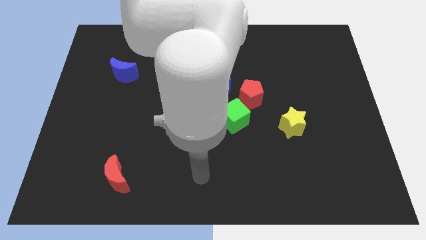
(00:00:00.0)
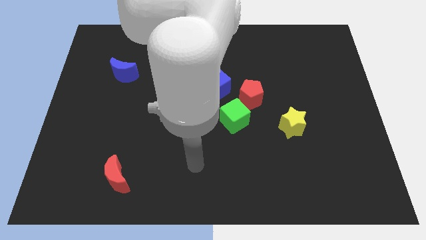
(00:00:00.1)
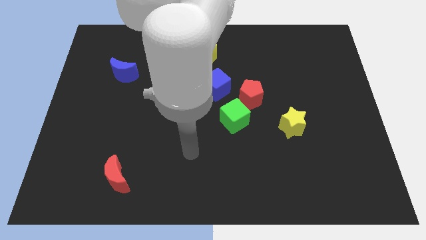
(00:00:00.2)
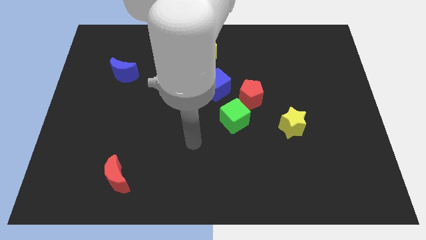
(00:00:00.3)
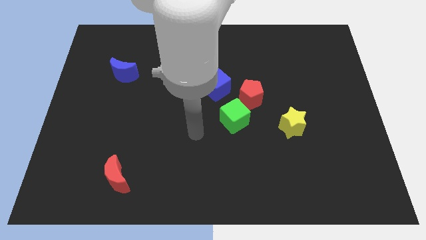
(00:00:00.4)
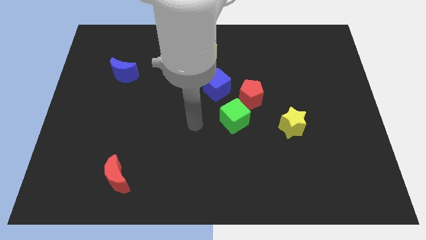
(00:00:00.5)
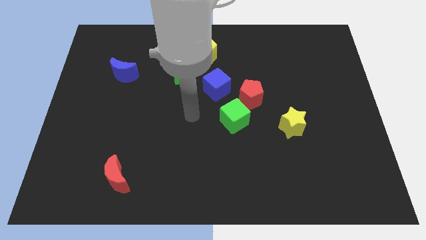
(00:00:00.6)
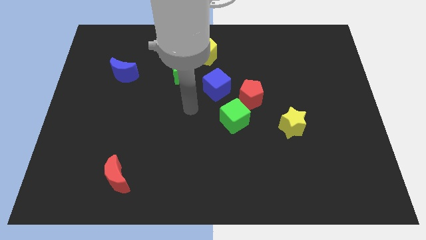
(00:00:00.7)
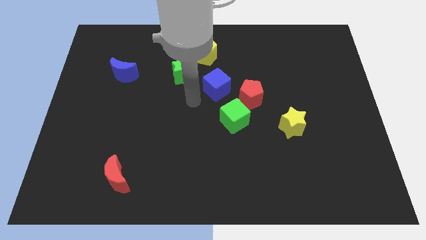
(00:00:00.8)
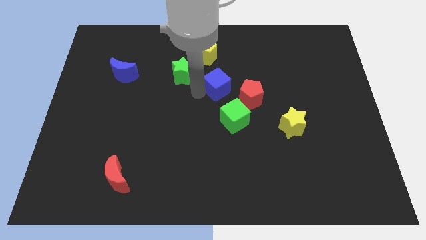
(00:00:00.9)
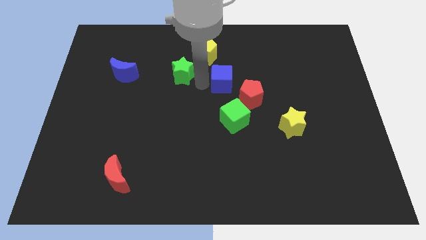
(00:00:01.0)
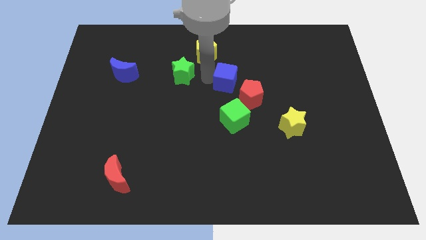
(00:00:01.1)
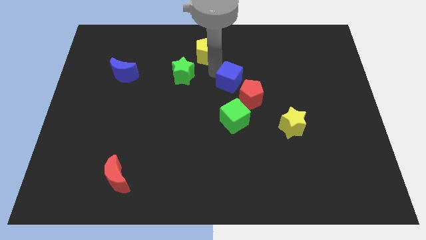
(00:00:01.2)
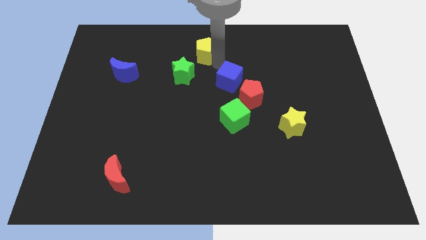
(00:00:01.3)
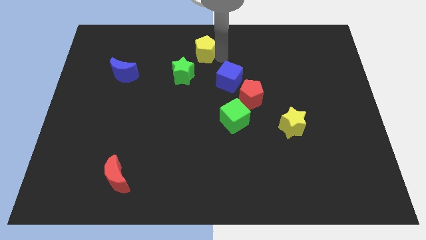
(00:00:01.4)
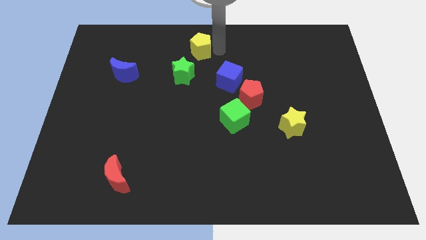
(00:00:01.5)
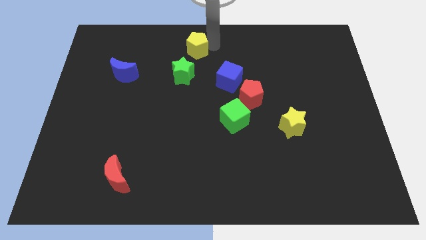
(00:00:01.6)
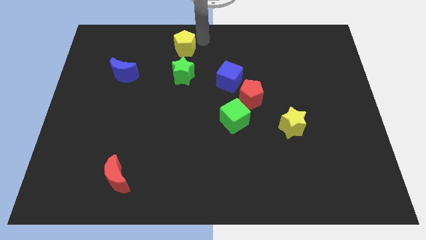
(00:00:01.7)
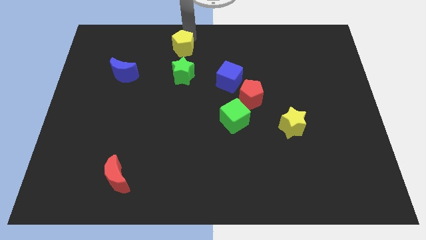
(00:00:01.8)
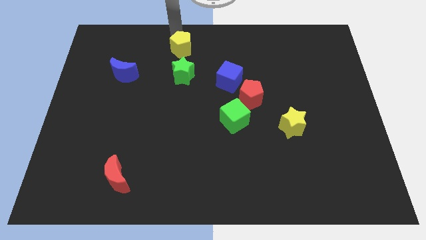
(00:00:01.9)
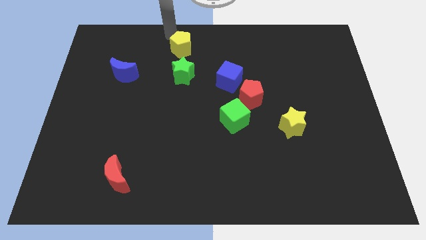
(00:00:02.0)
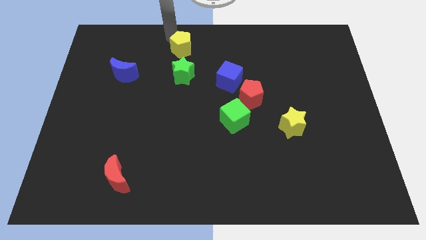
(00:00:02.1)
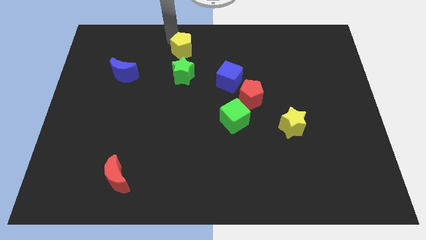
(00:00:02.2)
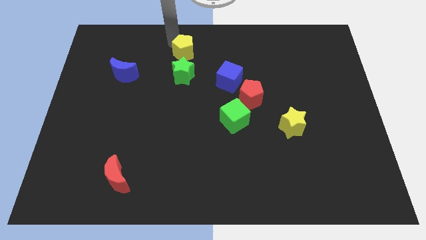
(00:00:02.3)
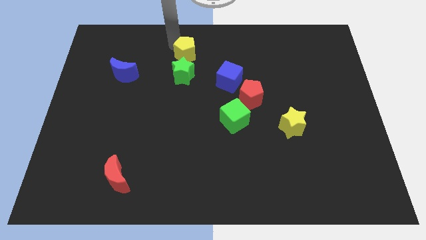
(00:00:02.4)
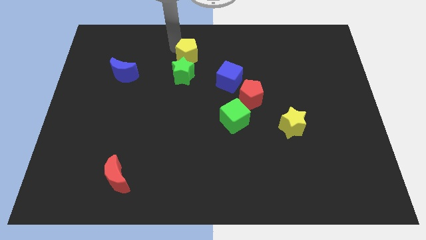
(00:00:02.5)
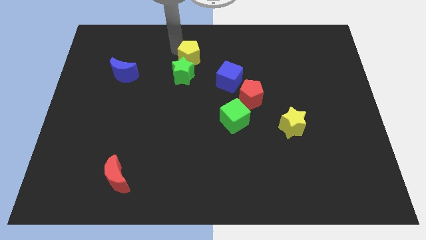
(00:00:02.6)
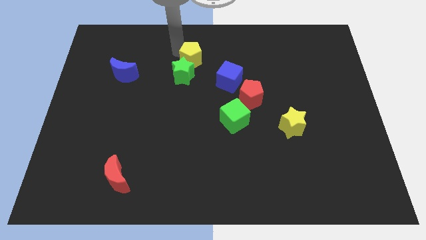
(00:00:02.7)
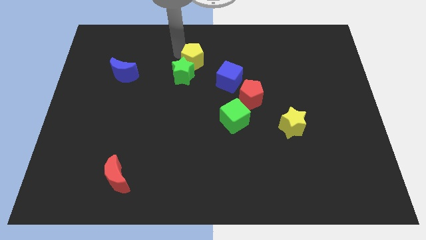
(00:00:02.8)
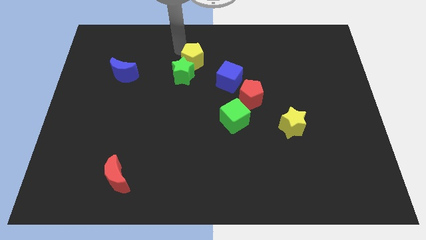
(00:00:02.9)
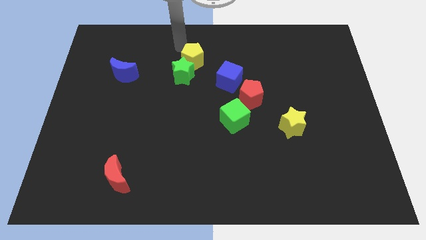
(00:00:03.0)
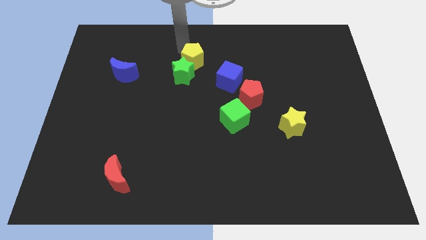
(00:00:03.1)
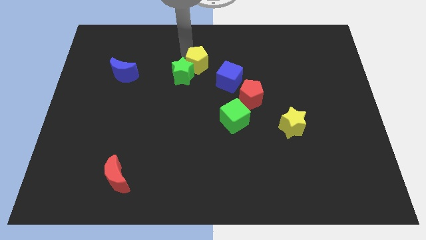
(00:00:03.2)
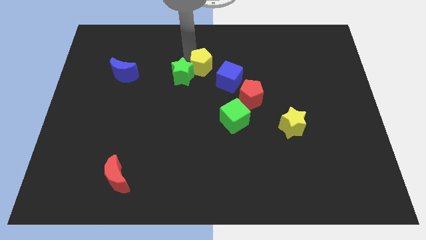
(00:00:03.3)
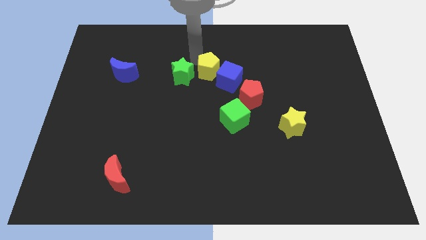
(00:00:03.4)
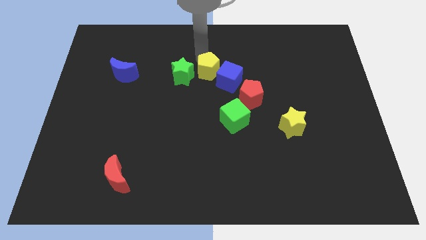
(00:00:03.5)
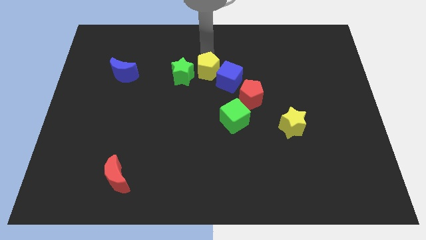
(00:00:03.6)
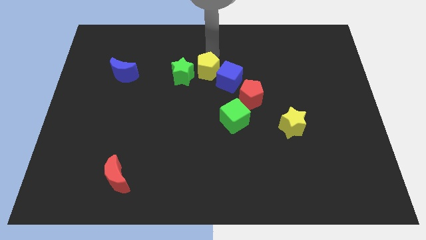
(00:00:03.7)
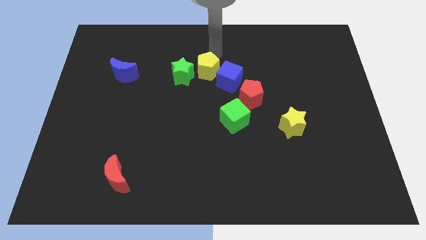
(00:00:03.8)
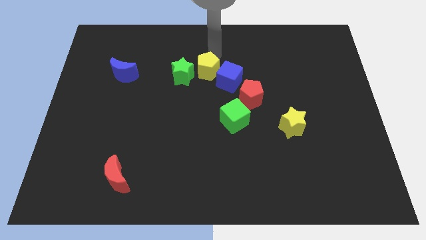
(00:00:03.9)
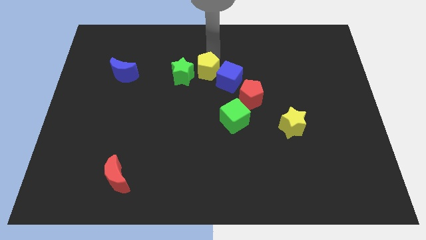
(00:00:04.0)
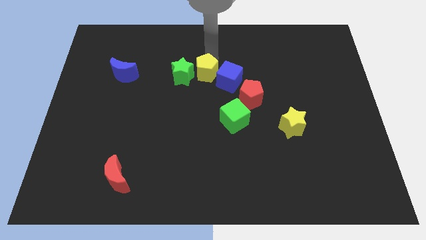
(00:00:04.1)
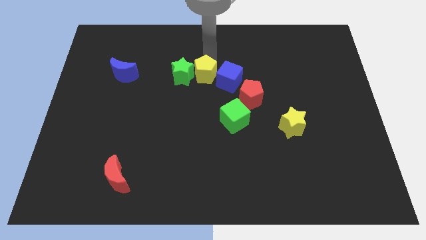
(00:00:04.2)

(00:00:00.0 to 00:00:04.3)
push the yellow pentagon slightly down

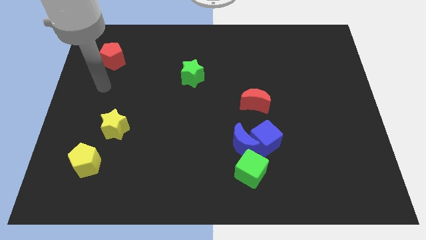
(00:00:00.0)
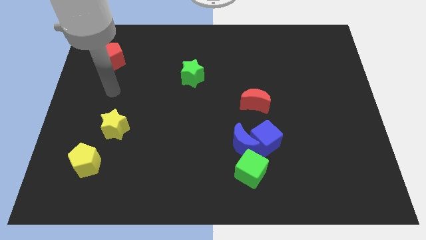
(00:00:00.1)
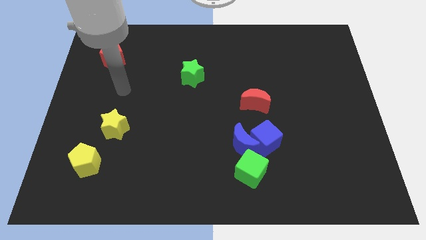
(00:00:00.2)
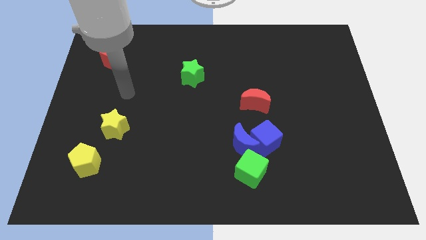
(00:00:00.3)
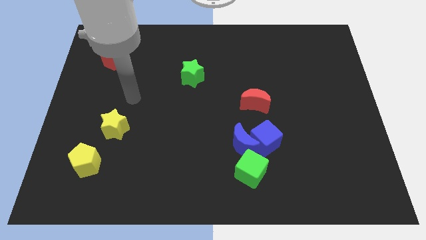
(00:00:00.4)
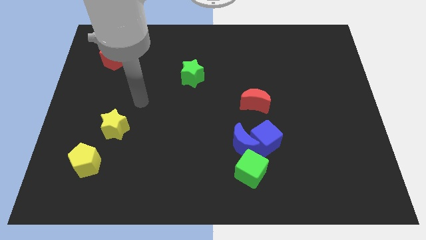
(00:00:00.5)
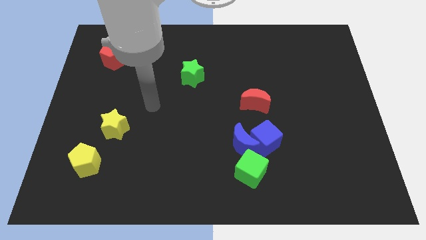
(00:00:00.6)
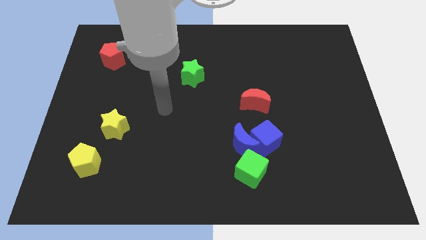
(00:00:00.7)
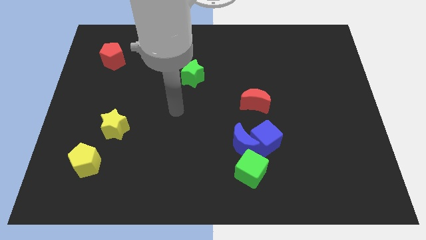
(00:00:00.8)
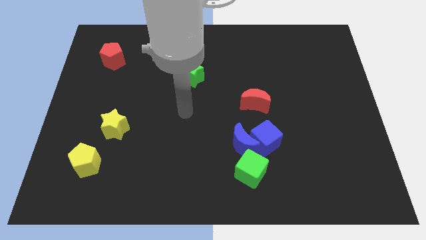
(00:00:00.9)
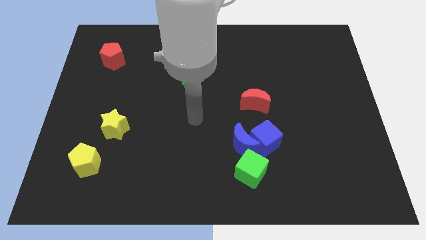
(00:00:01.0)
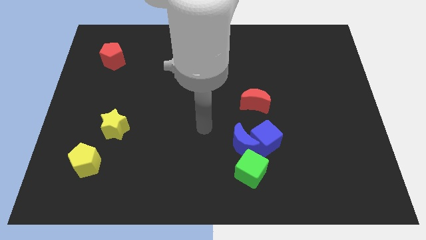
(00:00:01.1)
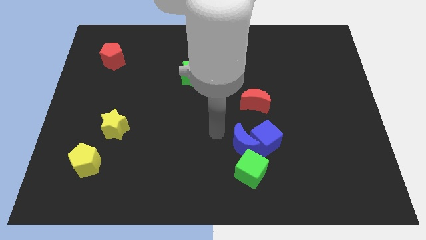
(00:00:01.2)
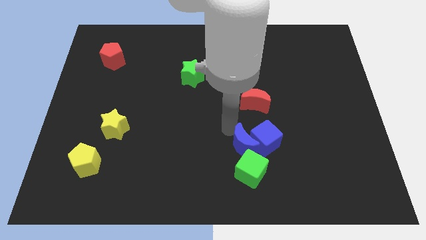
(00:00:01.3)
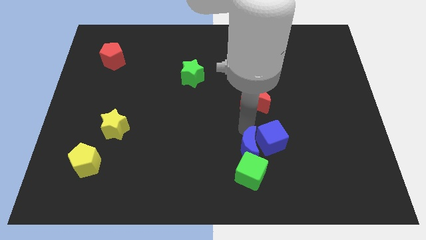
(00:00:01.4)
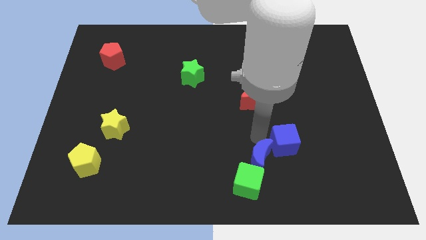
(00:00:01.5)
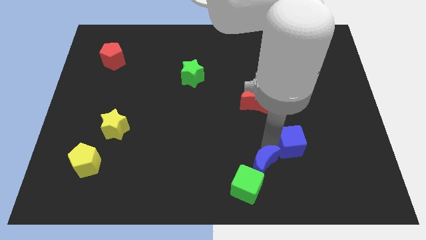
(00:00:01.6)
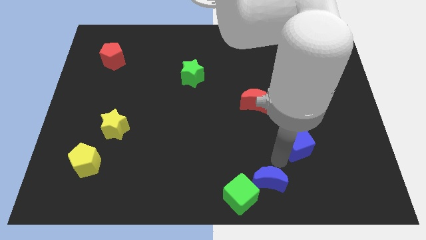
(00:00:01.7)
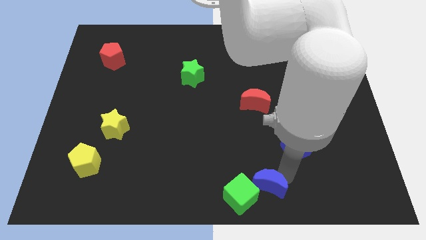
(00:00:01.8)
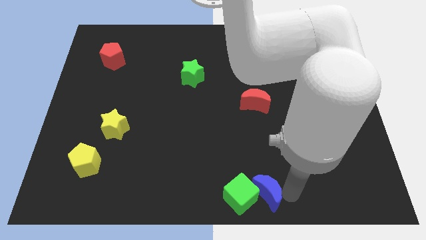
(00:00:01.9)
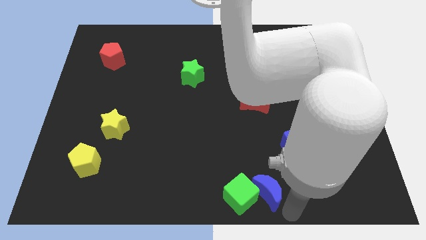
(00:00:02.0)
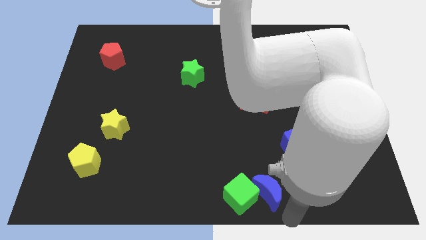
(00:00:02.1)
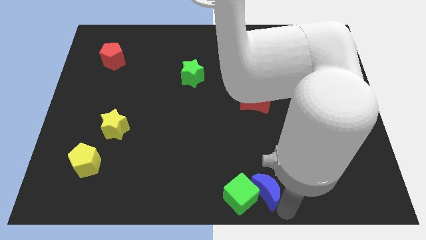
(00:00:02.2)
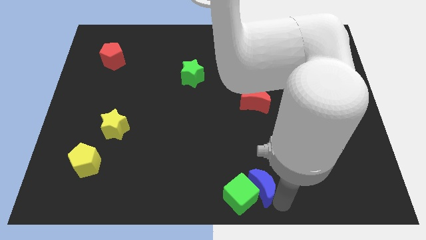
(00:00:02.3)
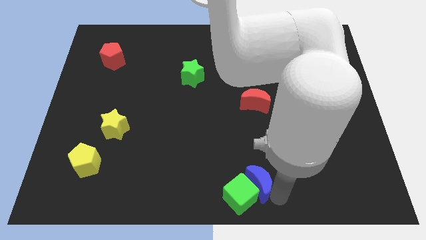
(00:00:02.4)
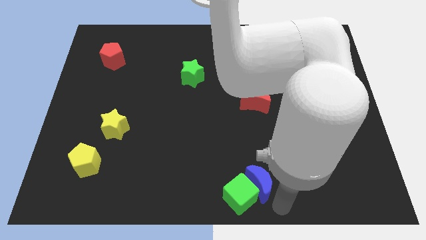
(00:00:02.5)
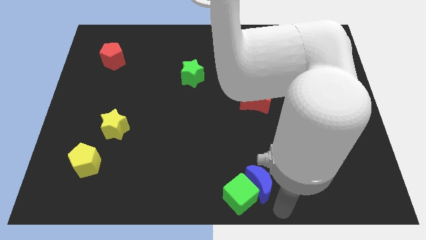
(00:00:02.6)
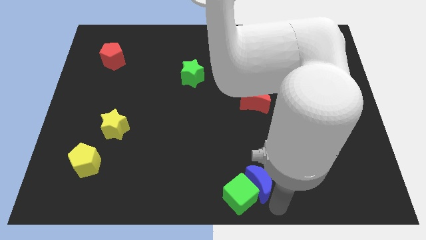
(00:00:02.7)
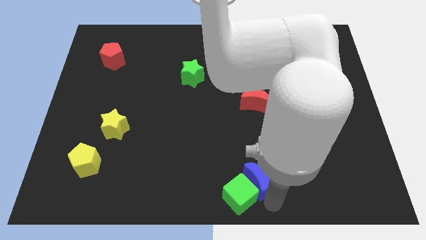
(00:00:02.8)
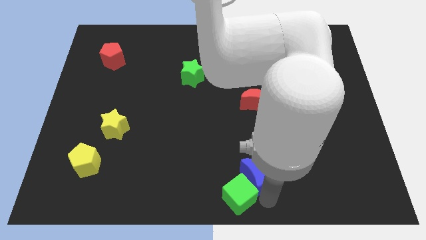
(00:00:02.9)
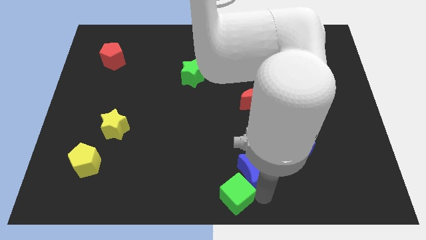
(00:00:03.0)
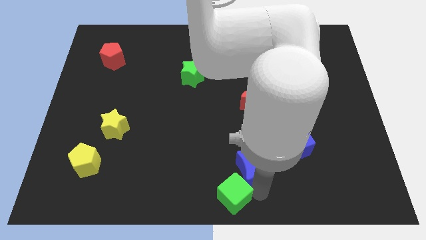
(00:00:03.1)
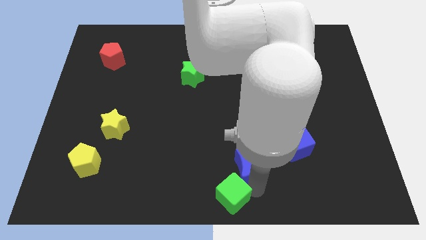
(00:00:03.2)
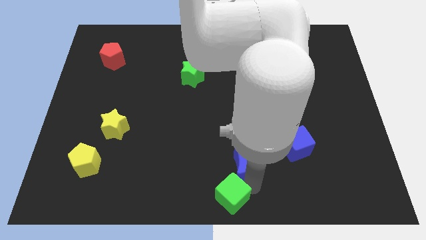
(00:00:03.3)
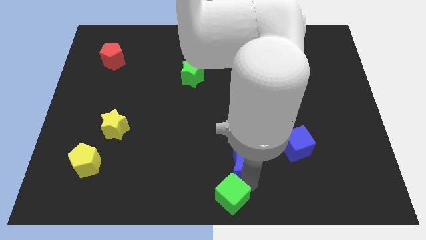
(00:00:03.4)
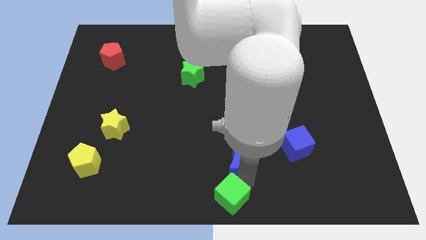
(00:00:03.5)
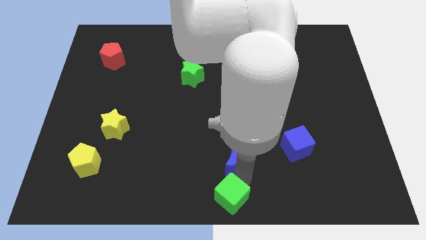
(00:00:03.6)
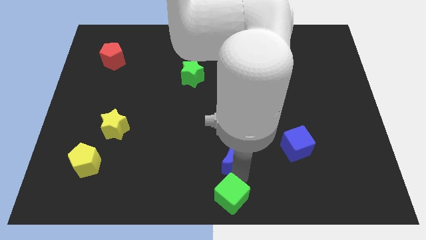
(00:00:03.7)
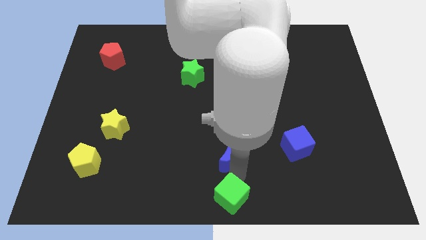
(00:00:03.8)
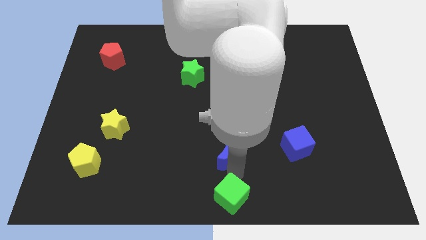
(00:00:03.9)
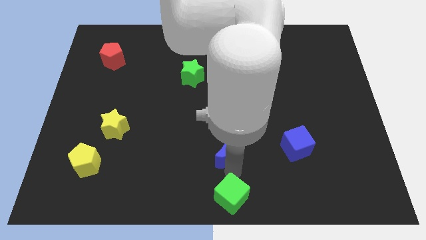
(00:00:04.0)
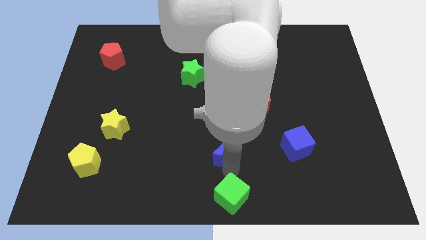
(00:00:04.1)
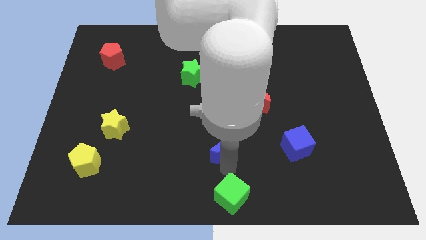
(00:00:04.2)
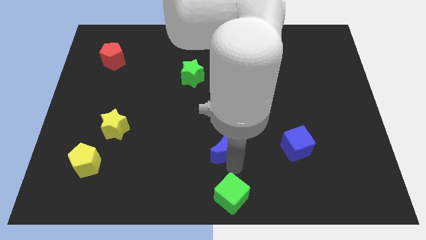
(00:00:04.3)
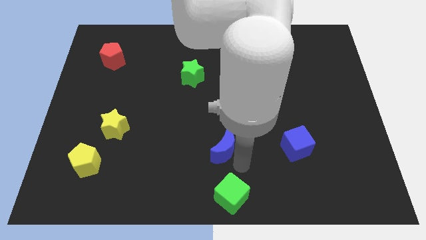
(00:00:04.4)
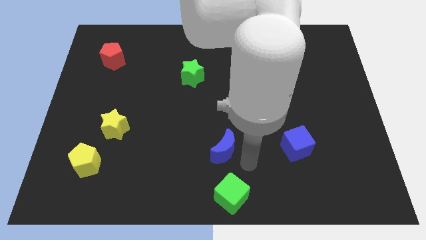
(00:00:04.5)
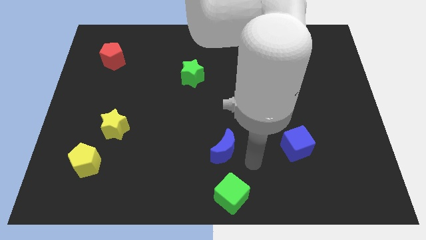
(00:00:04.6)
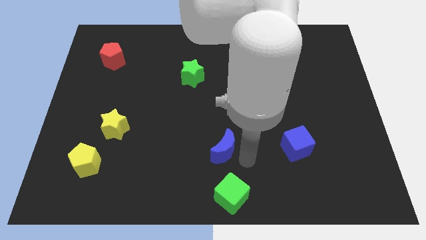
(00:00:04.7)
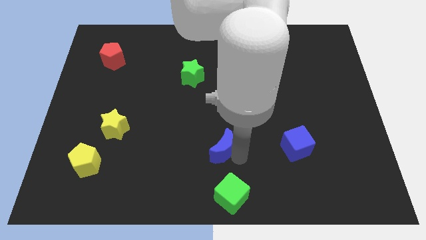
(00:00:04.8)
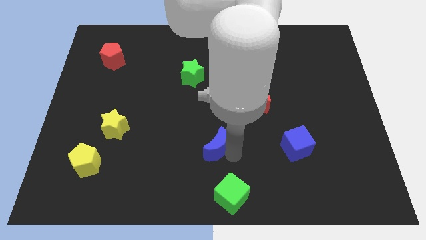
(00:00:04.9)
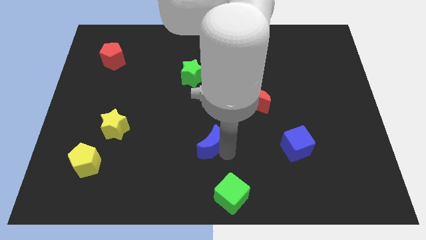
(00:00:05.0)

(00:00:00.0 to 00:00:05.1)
slide the blue moon to the left slightly
